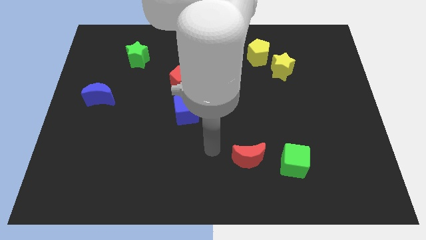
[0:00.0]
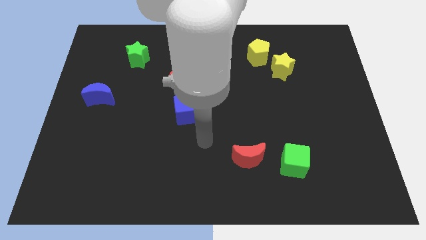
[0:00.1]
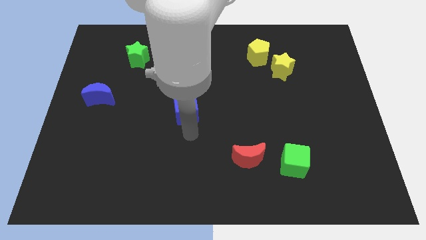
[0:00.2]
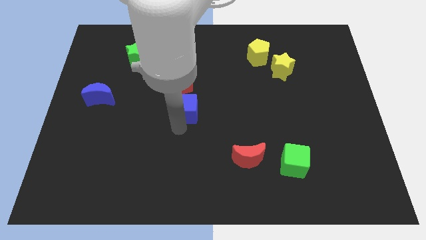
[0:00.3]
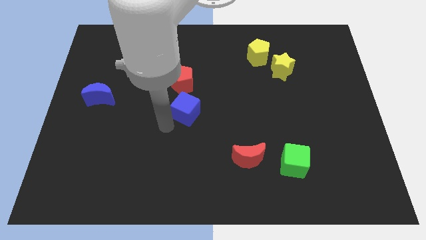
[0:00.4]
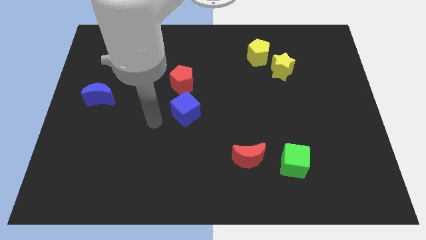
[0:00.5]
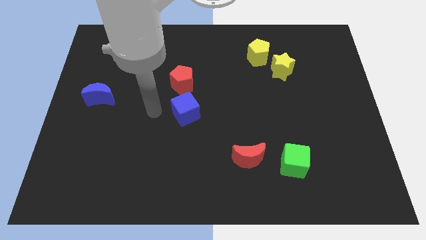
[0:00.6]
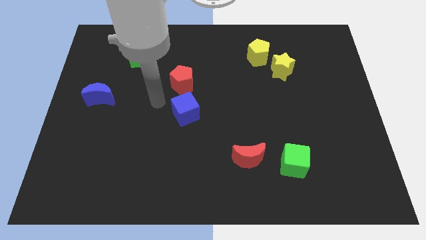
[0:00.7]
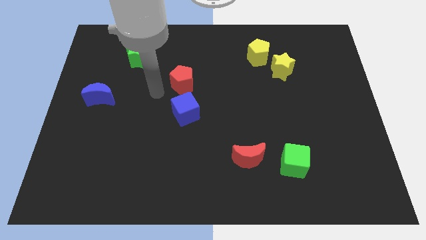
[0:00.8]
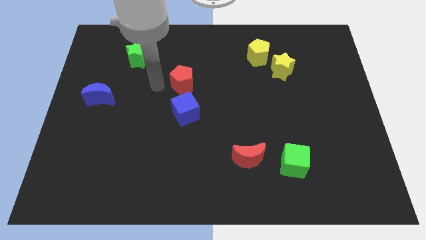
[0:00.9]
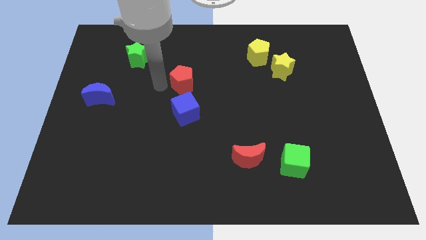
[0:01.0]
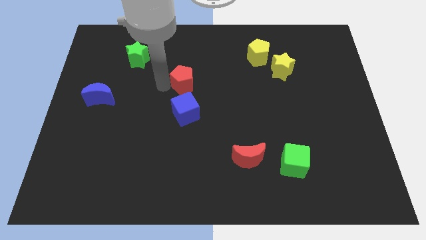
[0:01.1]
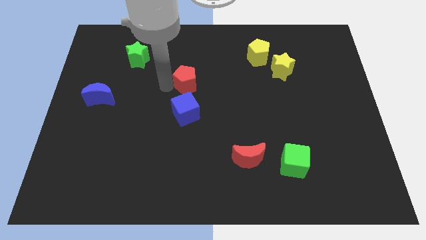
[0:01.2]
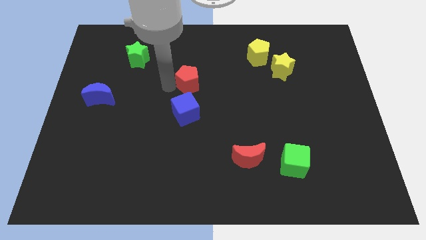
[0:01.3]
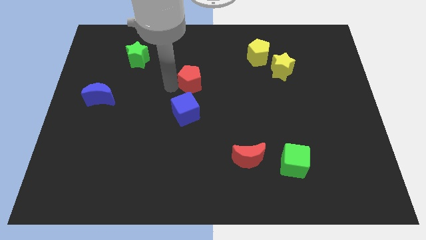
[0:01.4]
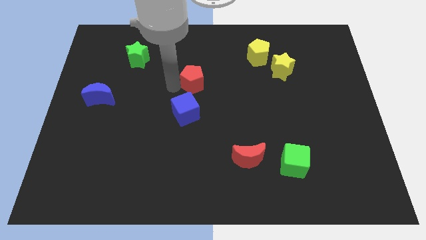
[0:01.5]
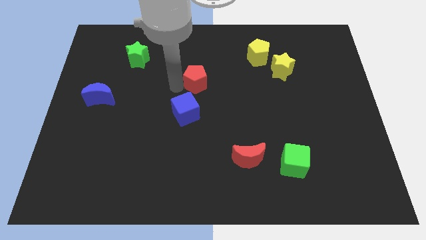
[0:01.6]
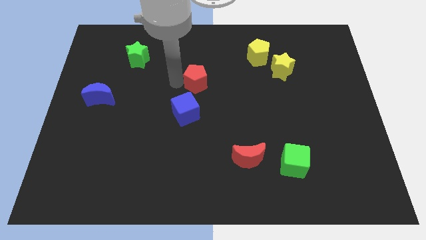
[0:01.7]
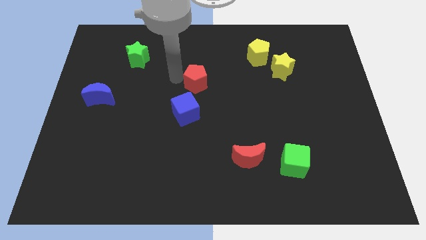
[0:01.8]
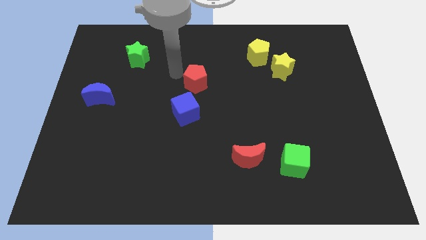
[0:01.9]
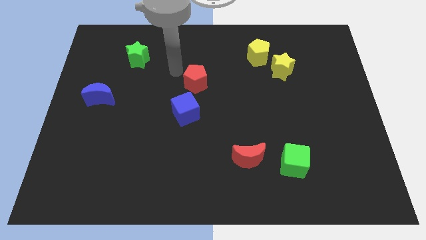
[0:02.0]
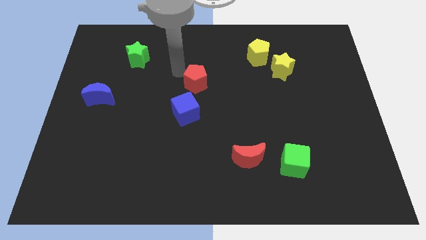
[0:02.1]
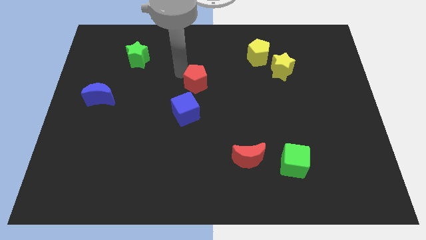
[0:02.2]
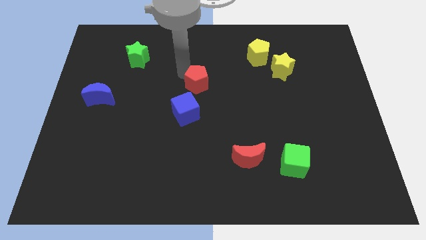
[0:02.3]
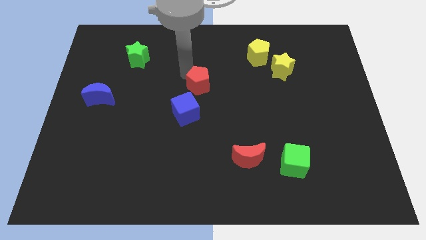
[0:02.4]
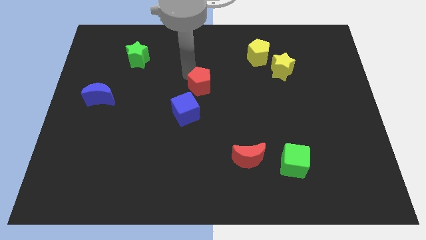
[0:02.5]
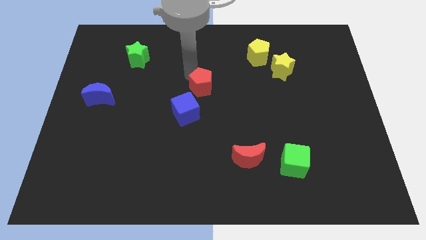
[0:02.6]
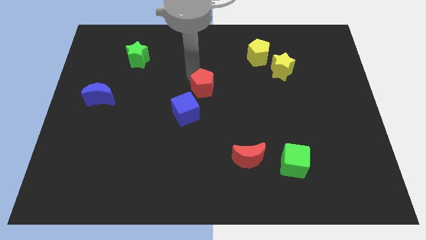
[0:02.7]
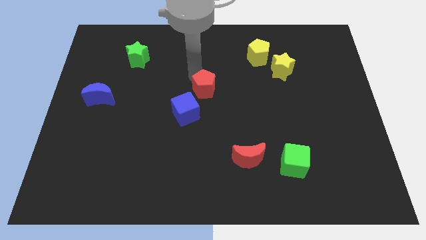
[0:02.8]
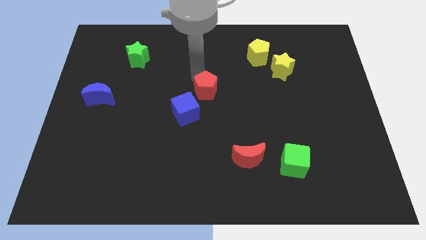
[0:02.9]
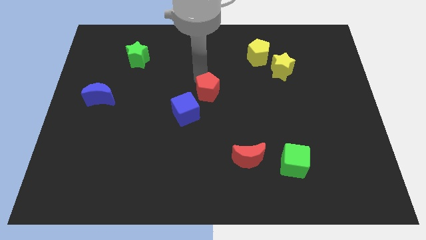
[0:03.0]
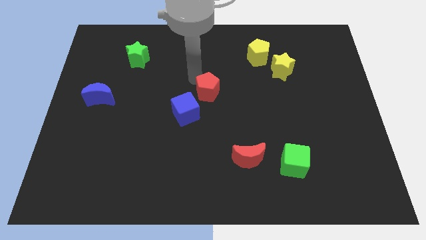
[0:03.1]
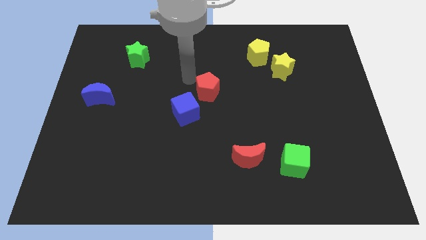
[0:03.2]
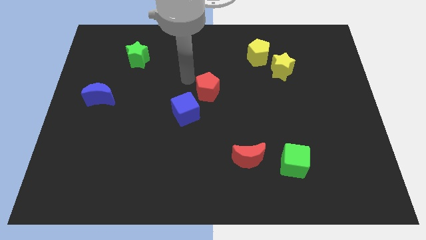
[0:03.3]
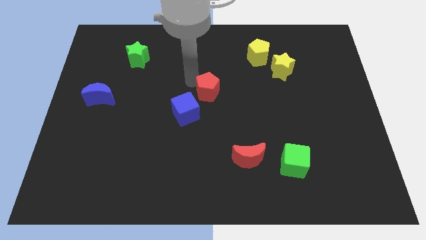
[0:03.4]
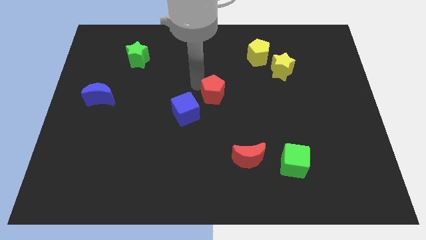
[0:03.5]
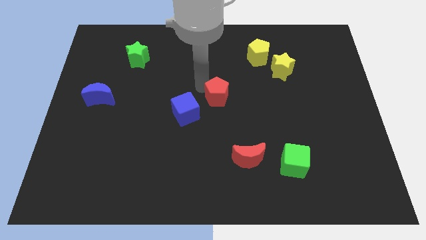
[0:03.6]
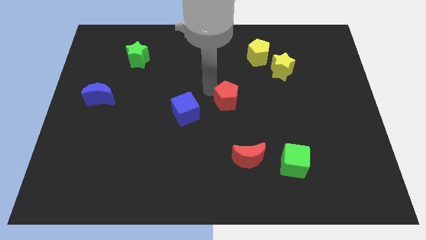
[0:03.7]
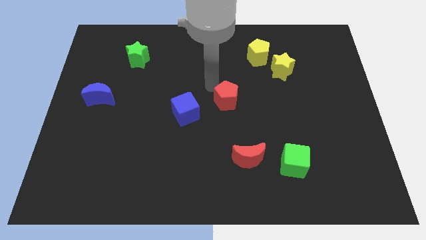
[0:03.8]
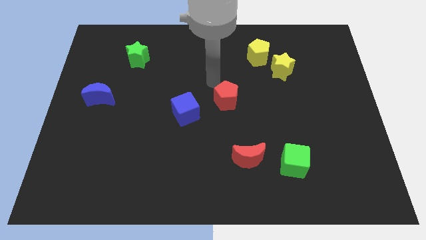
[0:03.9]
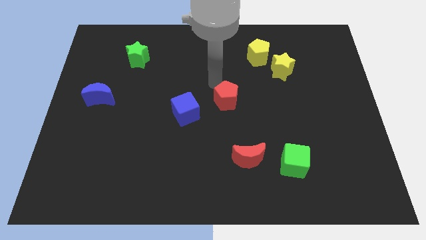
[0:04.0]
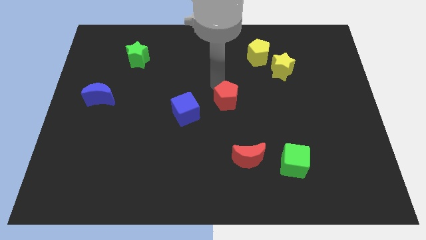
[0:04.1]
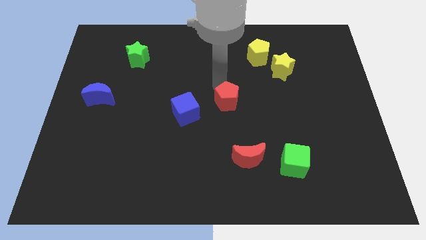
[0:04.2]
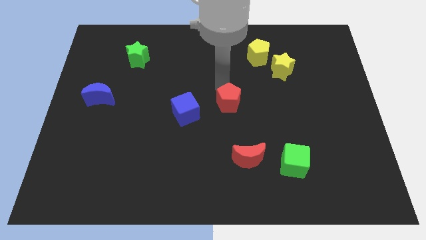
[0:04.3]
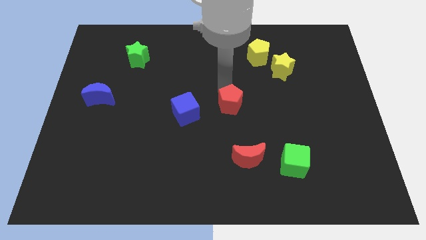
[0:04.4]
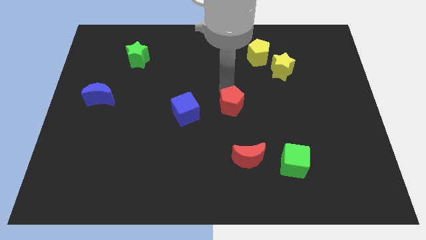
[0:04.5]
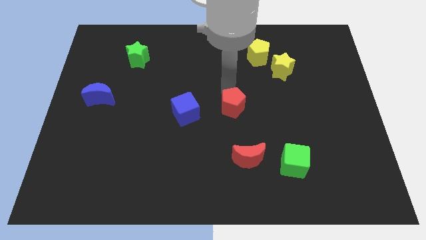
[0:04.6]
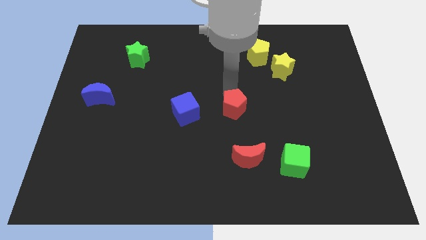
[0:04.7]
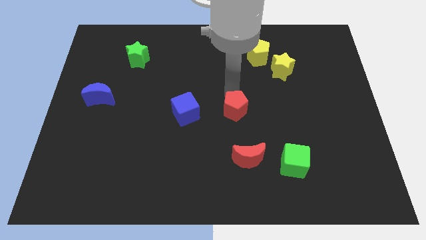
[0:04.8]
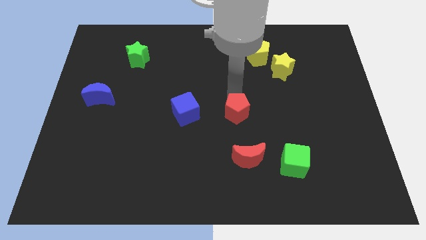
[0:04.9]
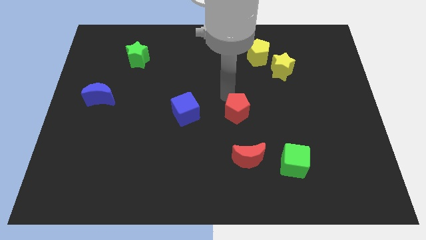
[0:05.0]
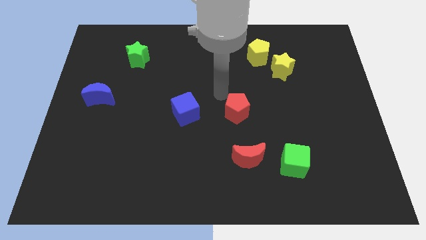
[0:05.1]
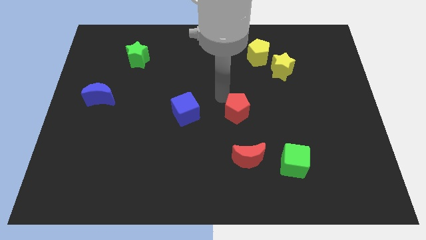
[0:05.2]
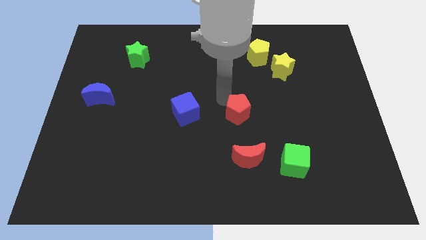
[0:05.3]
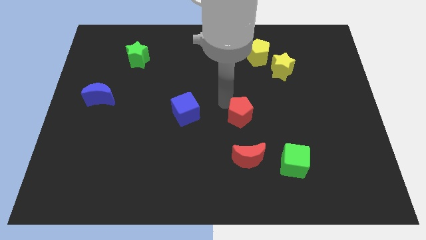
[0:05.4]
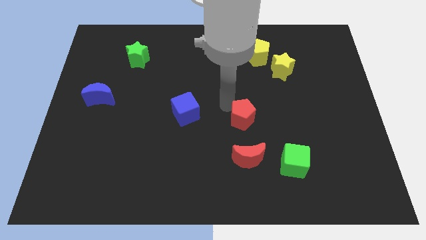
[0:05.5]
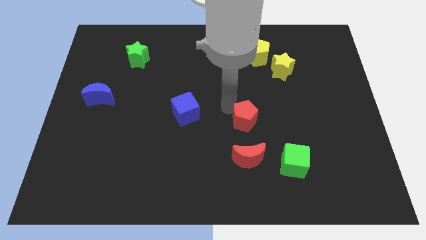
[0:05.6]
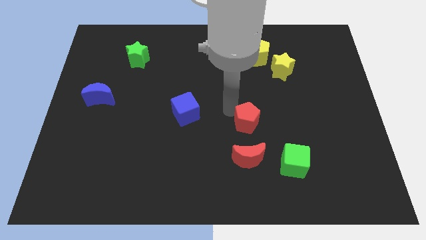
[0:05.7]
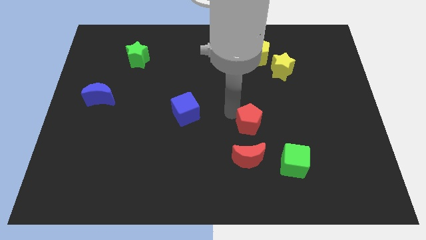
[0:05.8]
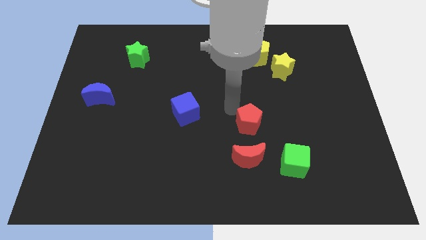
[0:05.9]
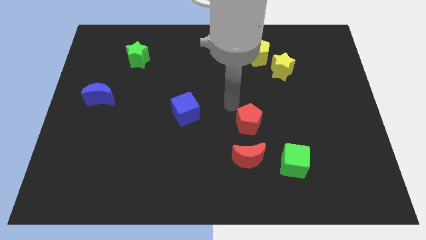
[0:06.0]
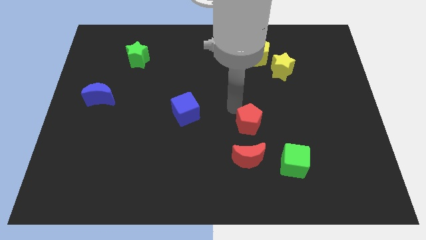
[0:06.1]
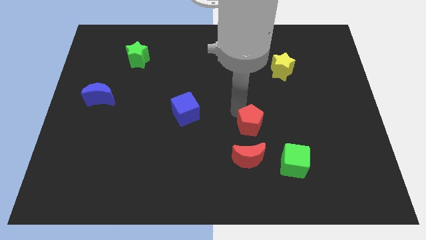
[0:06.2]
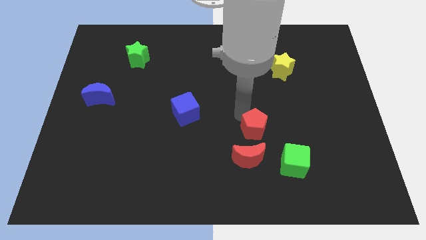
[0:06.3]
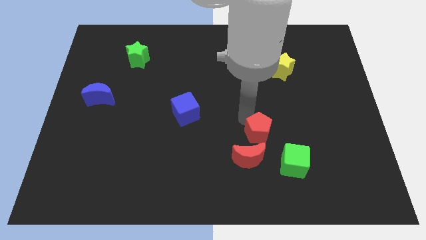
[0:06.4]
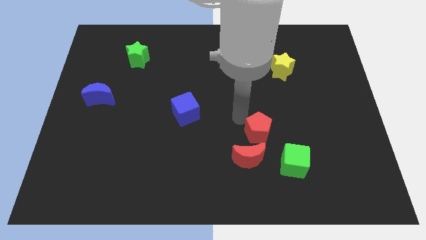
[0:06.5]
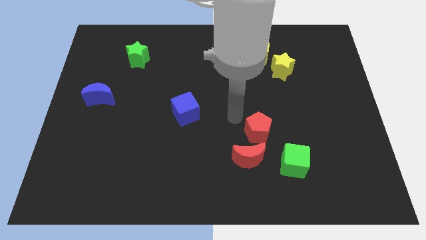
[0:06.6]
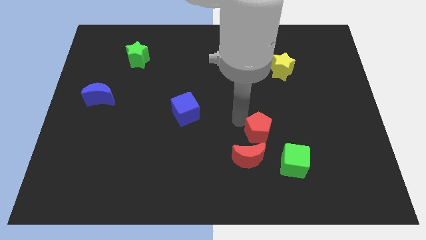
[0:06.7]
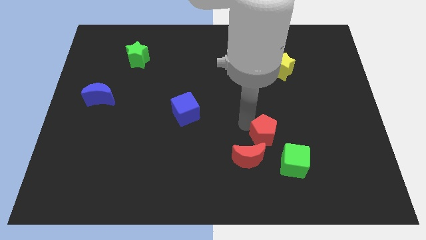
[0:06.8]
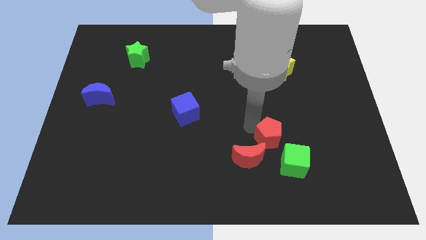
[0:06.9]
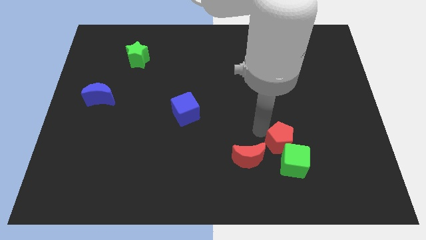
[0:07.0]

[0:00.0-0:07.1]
slide the red pentagon towards the green cube

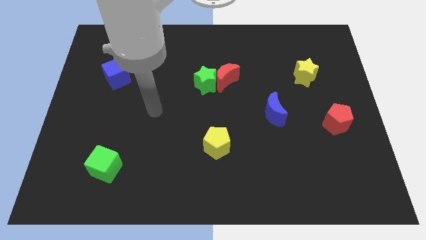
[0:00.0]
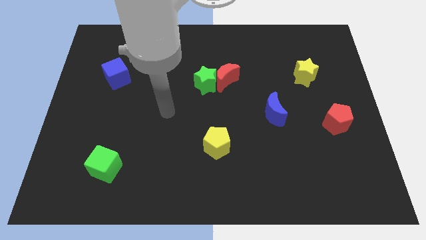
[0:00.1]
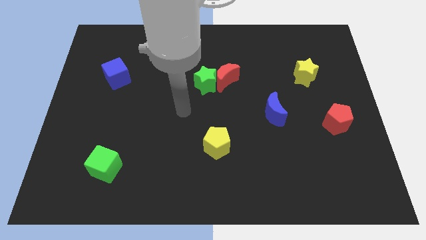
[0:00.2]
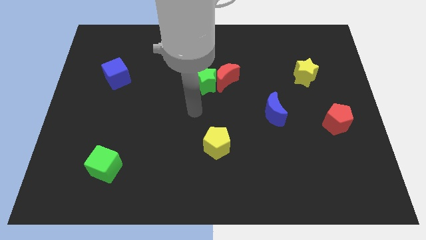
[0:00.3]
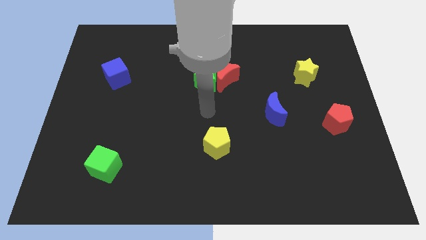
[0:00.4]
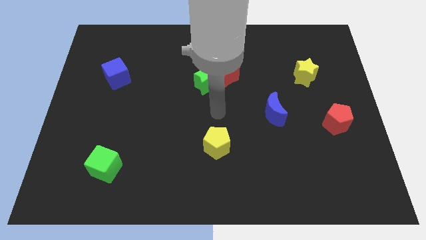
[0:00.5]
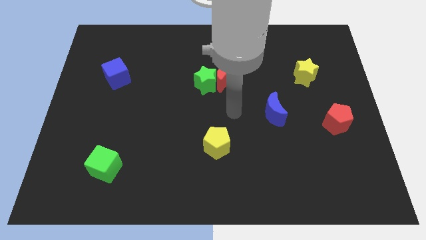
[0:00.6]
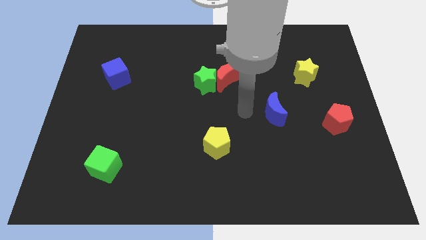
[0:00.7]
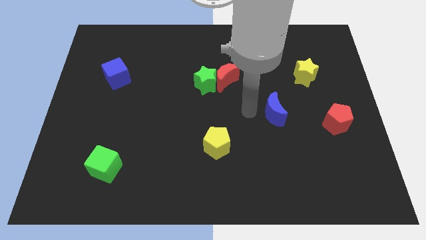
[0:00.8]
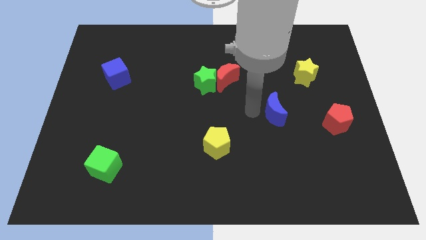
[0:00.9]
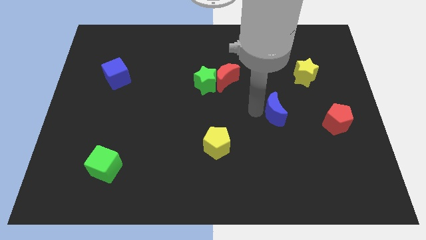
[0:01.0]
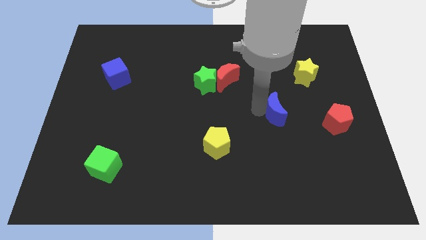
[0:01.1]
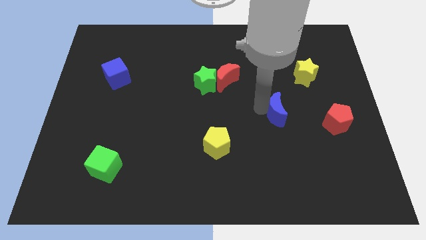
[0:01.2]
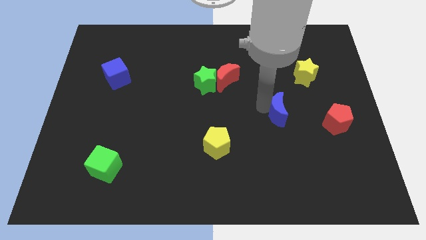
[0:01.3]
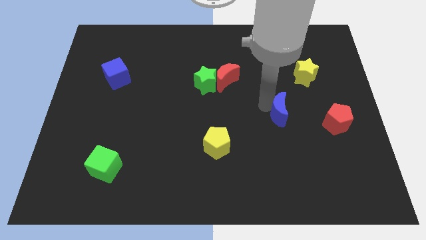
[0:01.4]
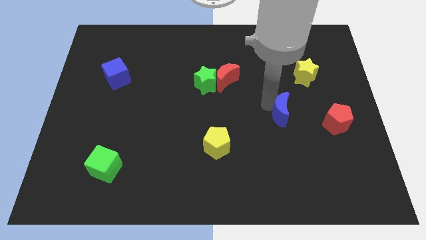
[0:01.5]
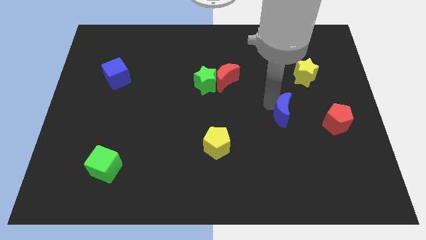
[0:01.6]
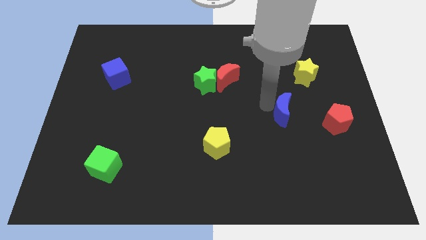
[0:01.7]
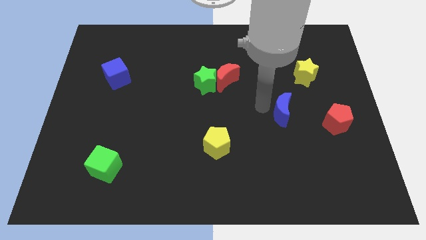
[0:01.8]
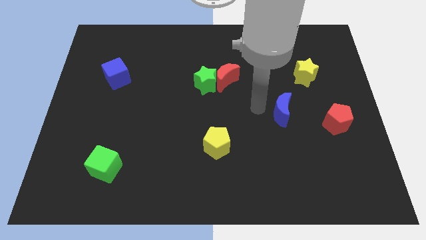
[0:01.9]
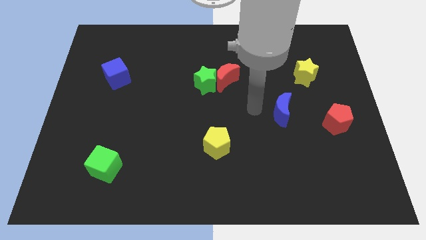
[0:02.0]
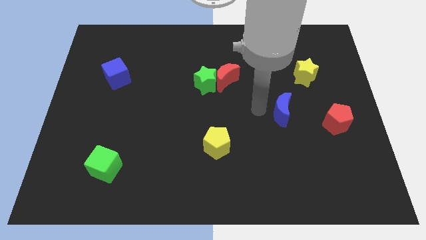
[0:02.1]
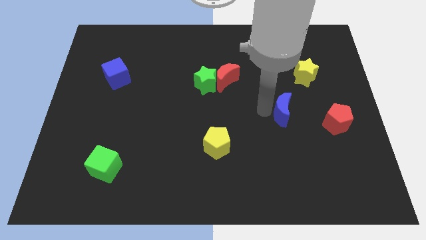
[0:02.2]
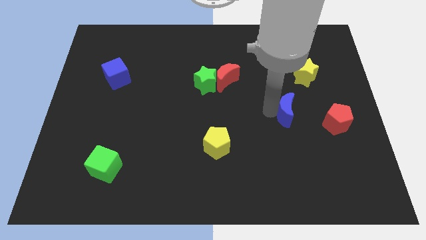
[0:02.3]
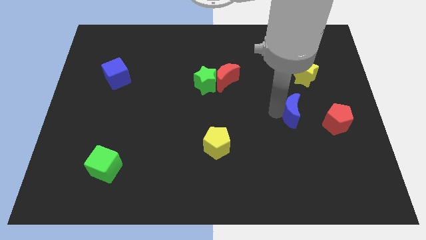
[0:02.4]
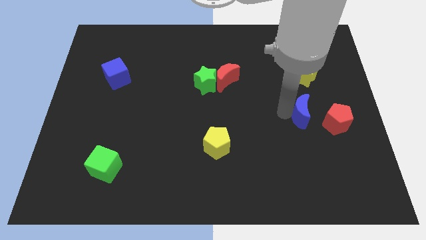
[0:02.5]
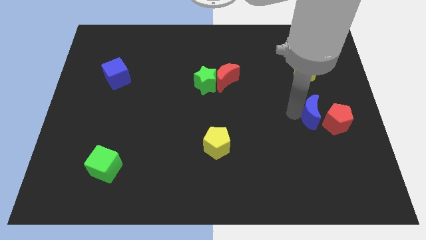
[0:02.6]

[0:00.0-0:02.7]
move the blue moon close to the red pentagon
